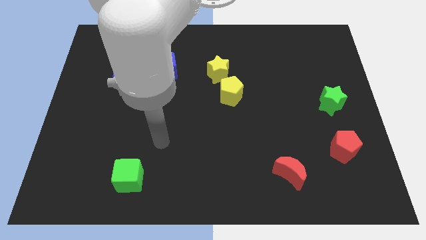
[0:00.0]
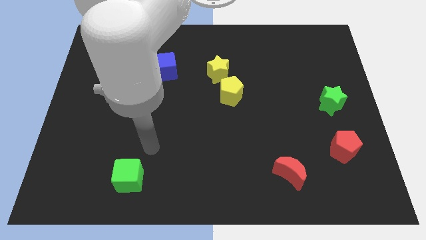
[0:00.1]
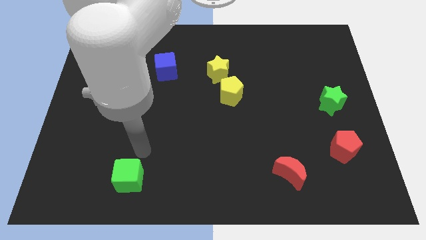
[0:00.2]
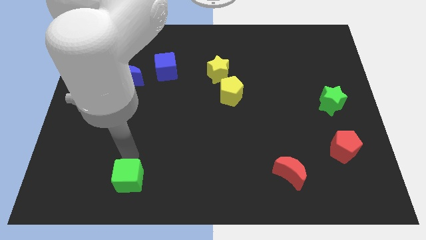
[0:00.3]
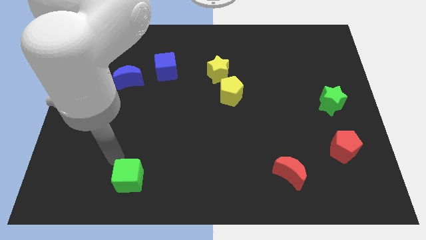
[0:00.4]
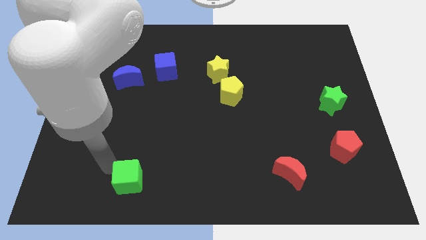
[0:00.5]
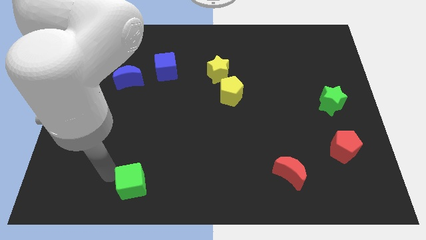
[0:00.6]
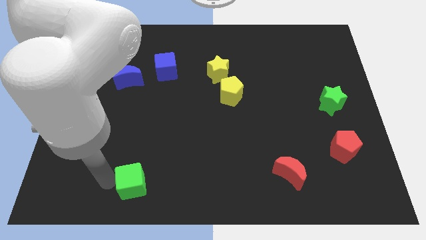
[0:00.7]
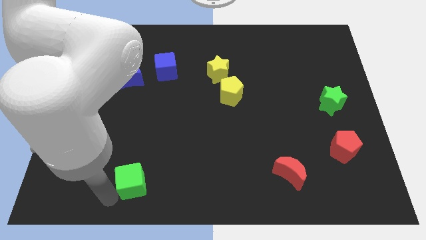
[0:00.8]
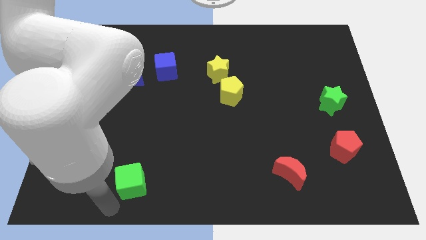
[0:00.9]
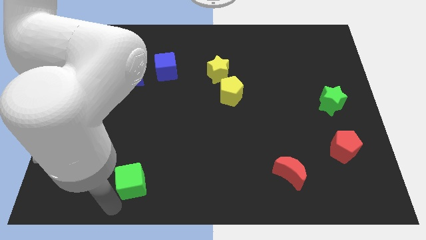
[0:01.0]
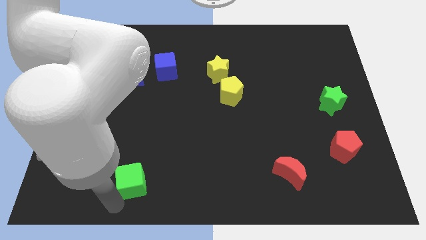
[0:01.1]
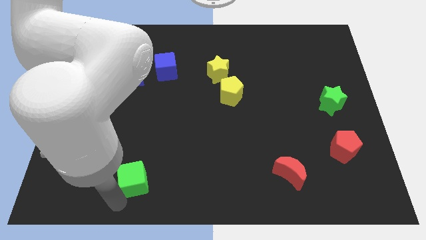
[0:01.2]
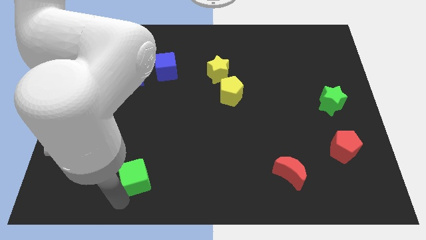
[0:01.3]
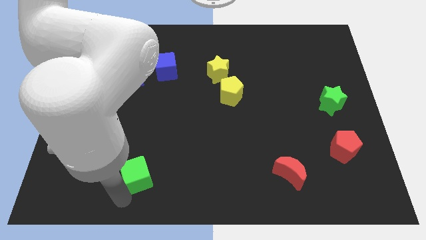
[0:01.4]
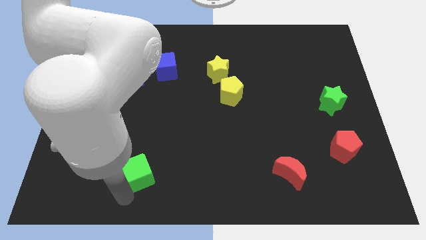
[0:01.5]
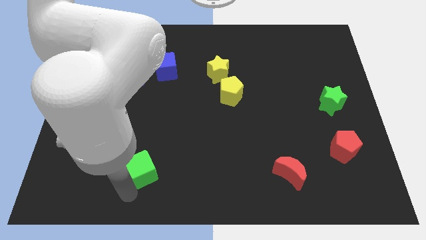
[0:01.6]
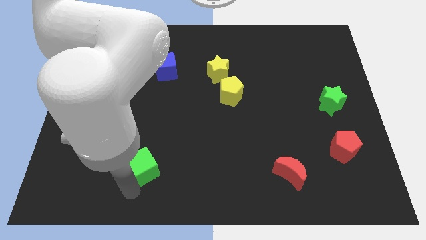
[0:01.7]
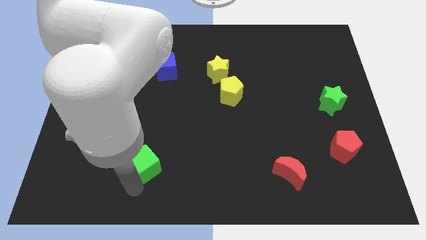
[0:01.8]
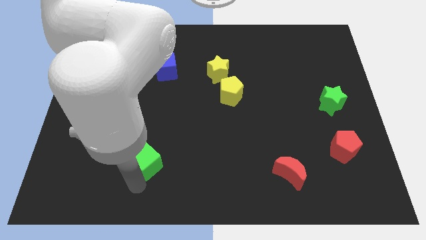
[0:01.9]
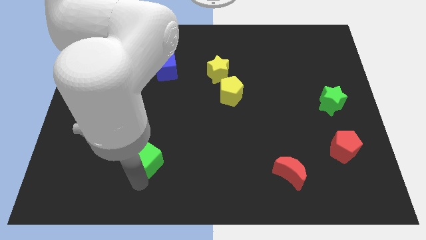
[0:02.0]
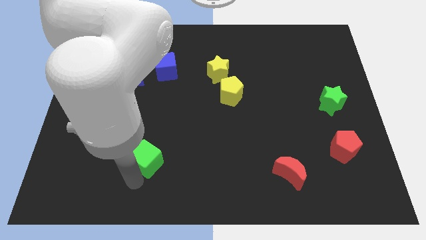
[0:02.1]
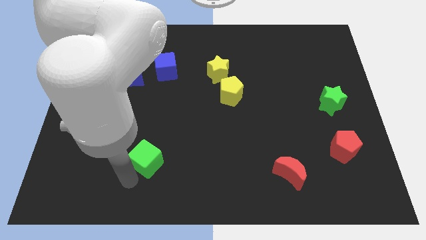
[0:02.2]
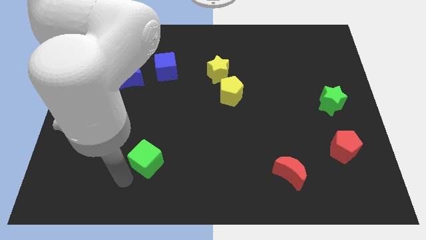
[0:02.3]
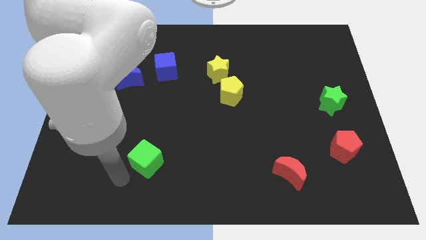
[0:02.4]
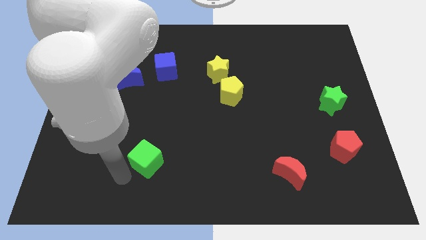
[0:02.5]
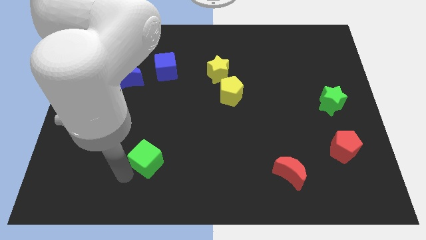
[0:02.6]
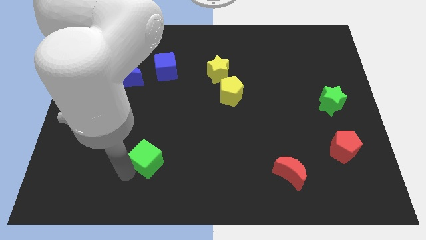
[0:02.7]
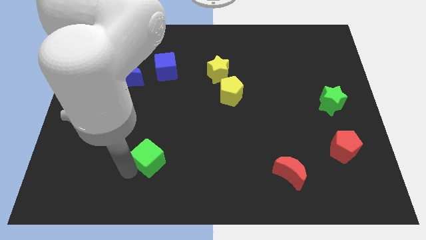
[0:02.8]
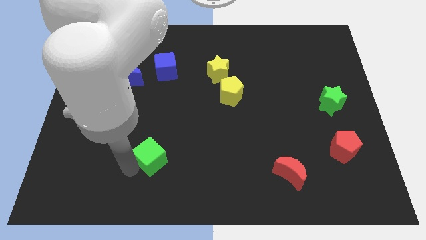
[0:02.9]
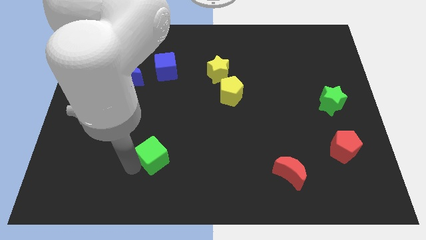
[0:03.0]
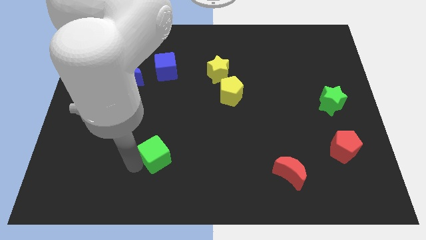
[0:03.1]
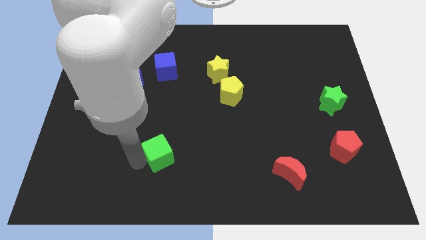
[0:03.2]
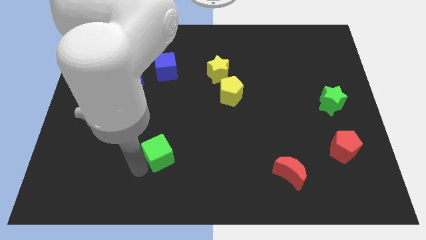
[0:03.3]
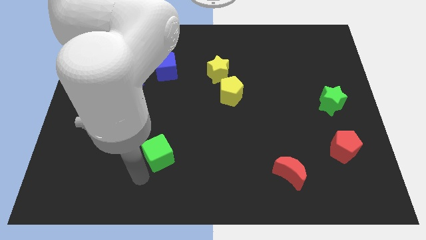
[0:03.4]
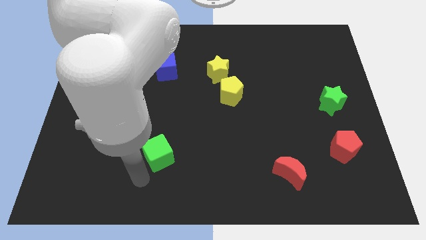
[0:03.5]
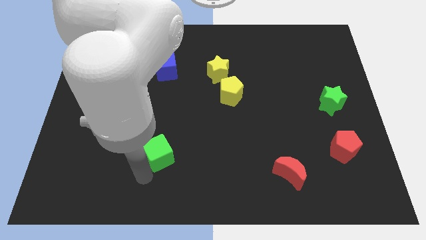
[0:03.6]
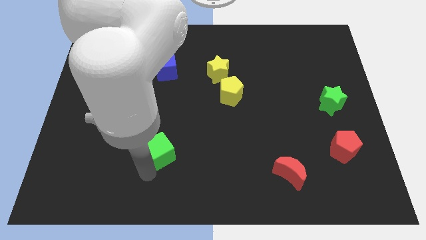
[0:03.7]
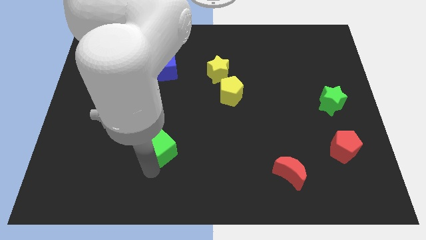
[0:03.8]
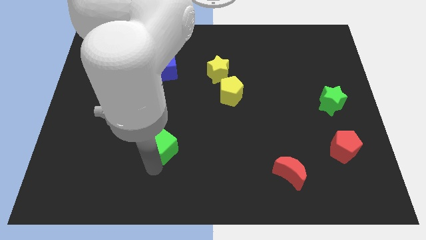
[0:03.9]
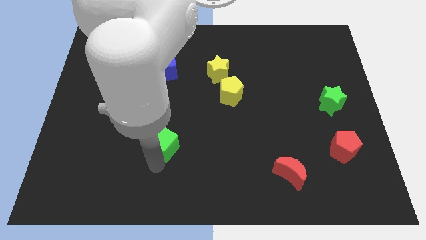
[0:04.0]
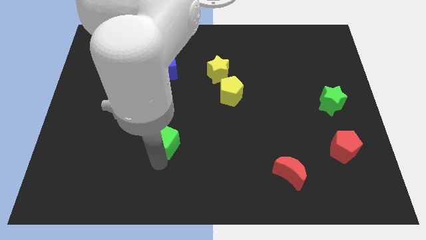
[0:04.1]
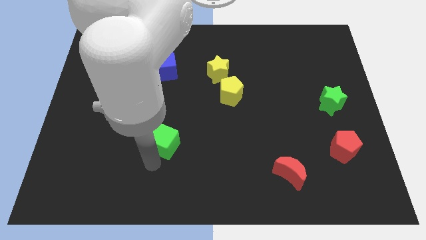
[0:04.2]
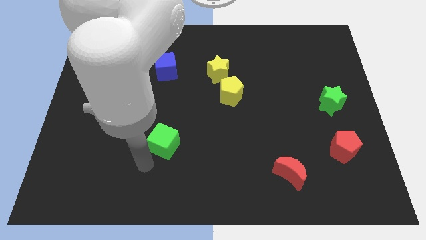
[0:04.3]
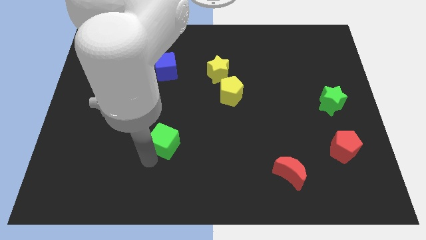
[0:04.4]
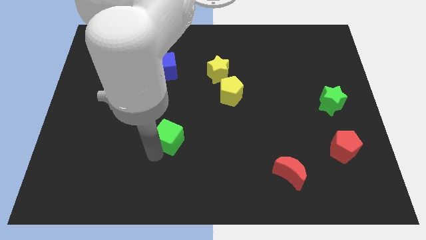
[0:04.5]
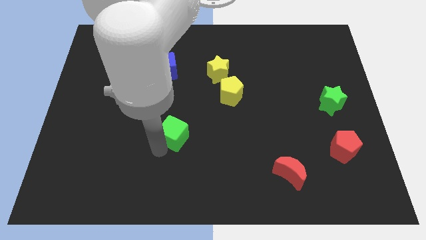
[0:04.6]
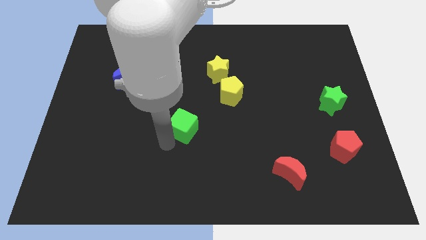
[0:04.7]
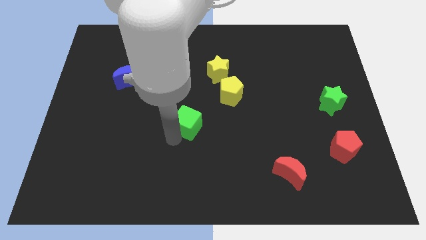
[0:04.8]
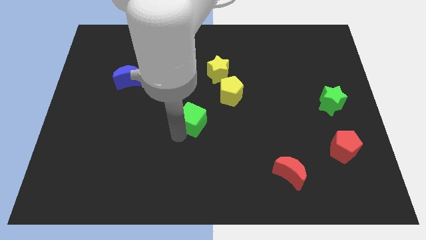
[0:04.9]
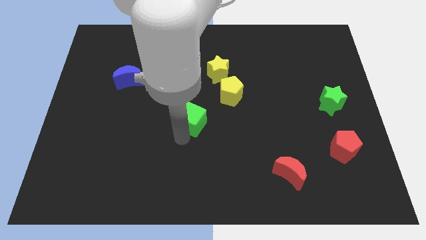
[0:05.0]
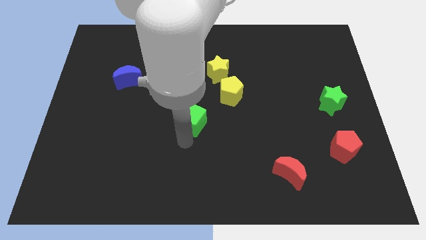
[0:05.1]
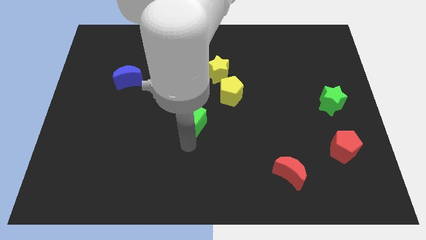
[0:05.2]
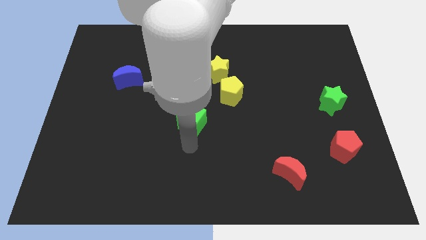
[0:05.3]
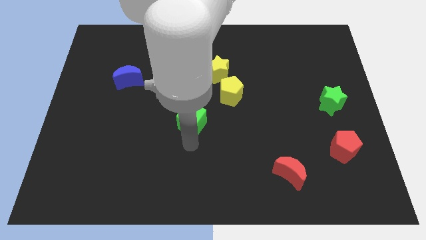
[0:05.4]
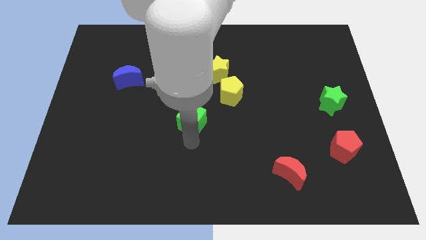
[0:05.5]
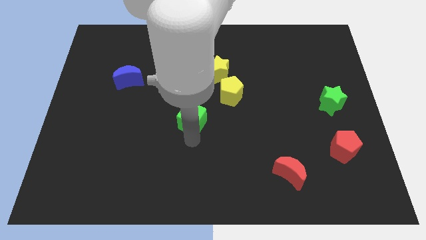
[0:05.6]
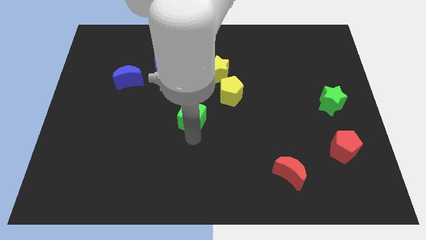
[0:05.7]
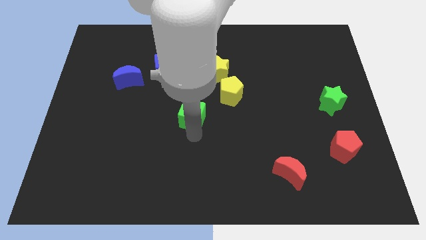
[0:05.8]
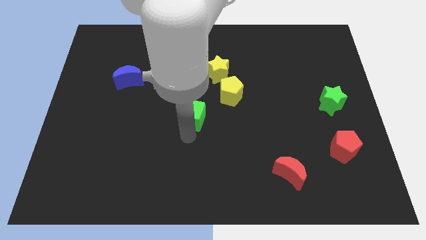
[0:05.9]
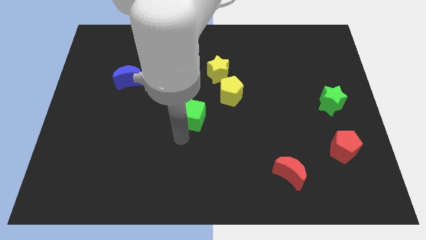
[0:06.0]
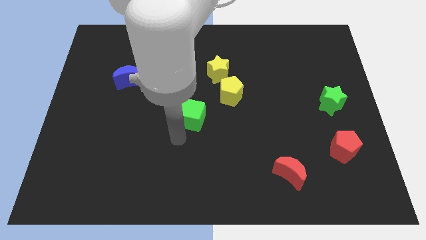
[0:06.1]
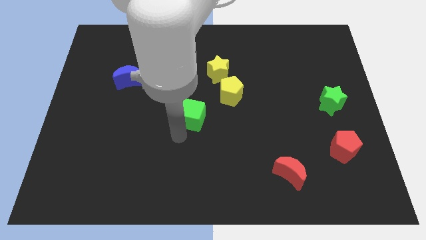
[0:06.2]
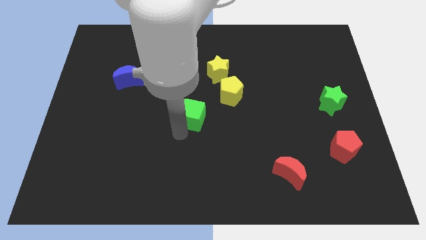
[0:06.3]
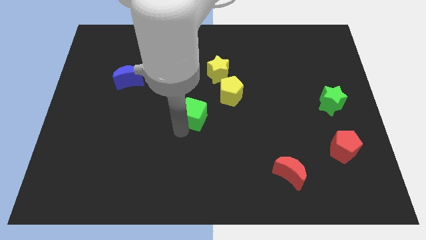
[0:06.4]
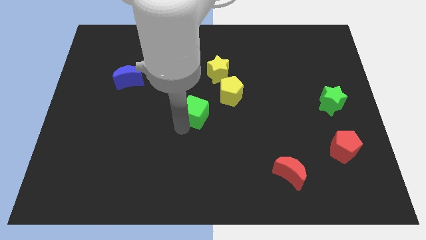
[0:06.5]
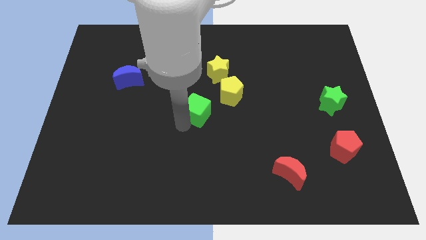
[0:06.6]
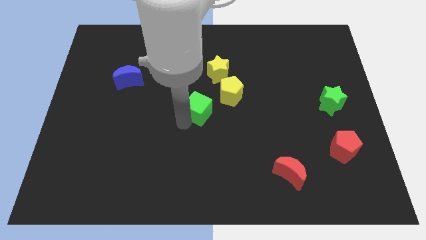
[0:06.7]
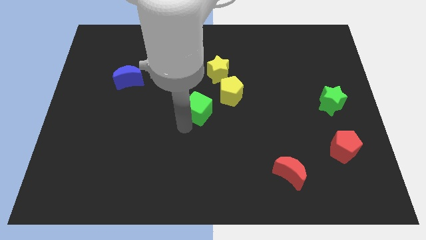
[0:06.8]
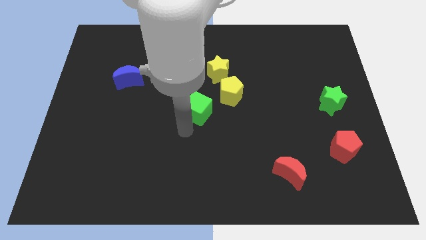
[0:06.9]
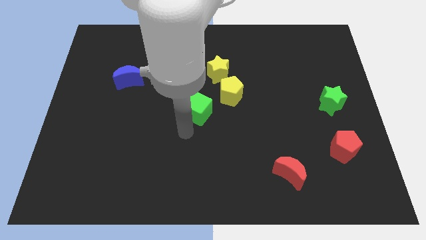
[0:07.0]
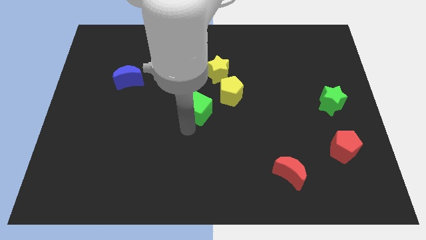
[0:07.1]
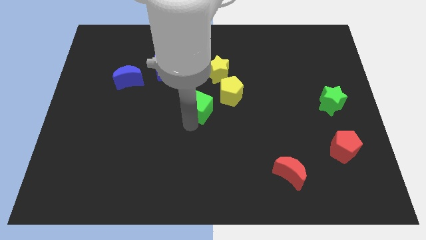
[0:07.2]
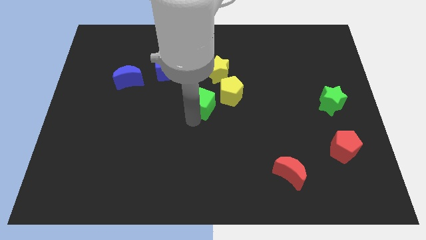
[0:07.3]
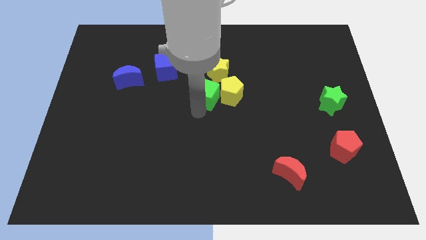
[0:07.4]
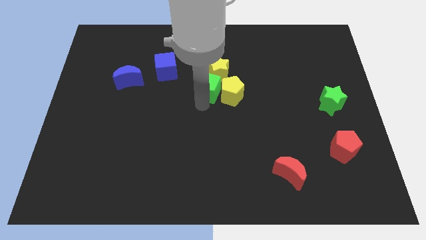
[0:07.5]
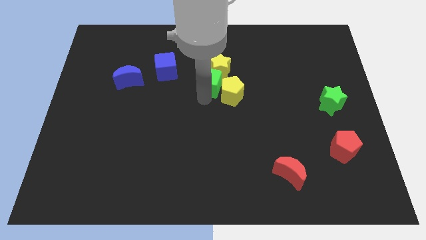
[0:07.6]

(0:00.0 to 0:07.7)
slide the green cube close to the yellow star
